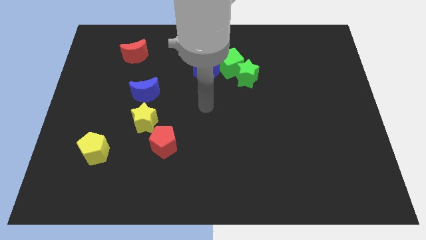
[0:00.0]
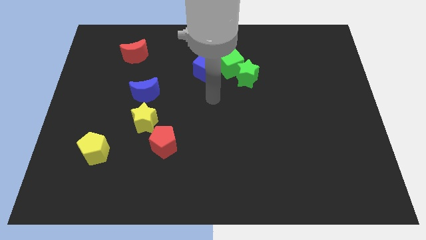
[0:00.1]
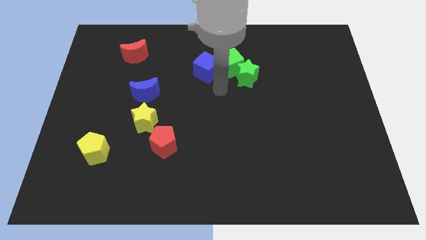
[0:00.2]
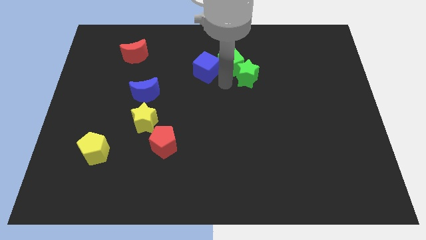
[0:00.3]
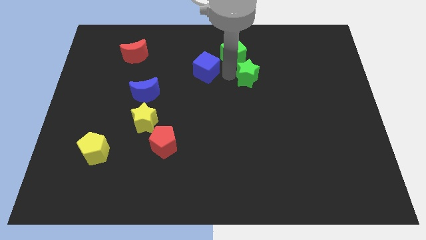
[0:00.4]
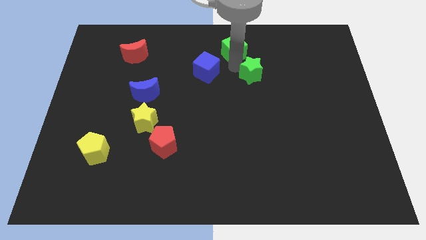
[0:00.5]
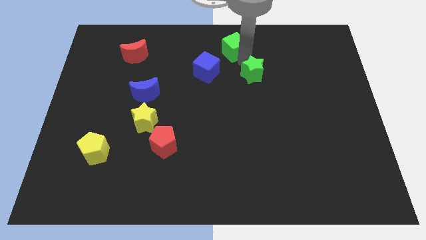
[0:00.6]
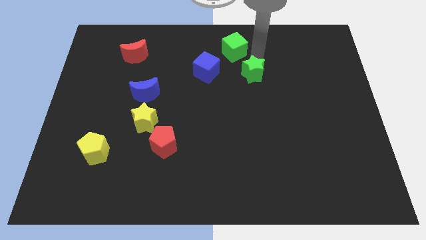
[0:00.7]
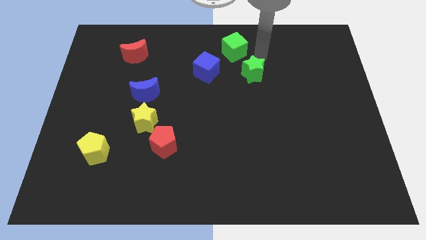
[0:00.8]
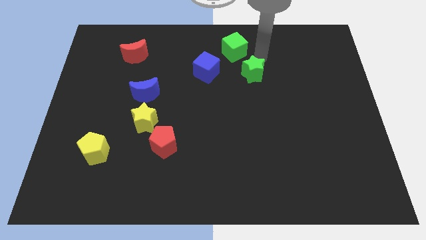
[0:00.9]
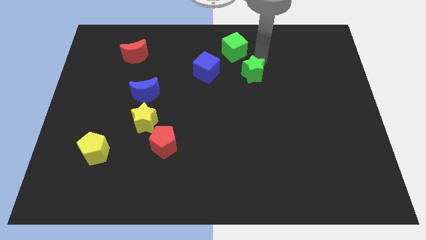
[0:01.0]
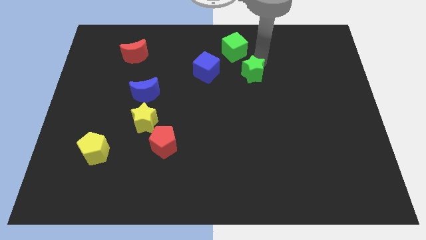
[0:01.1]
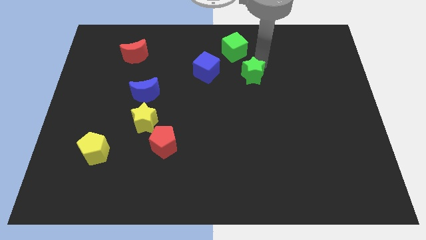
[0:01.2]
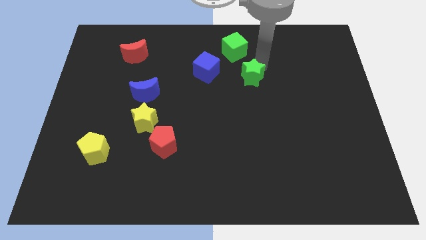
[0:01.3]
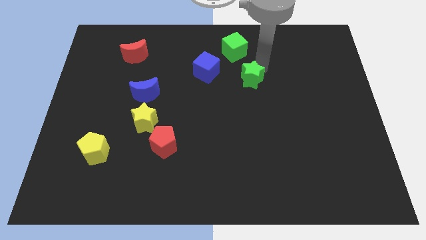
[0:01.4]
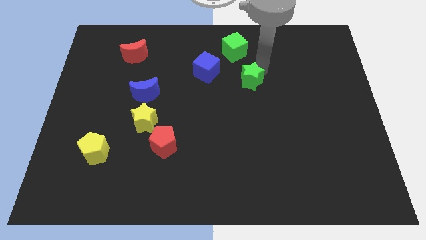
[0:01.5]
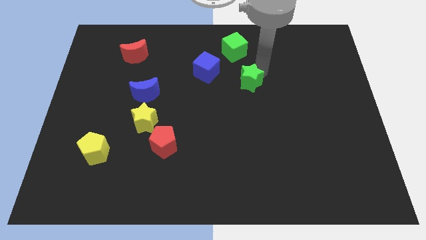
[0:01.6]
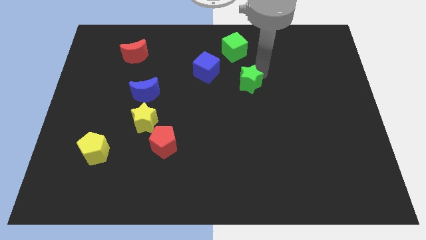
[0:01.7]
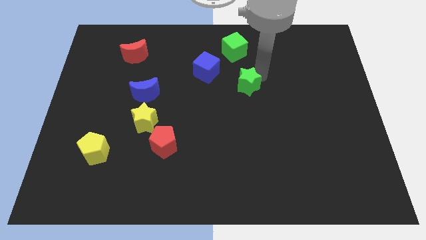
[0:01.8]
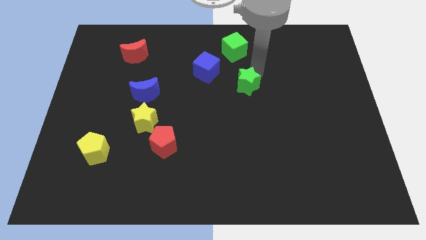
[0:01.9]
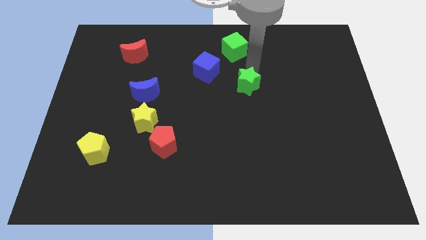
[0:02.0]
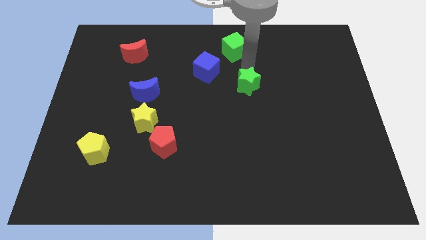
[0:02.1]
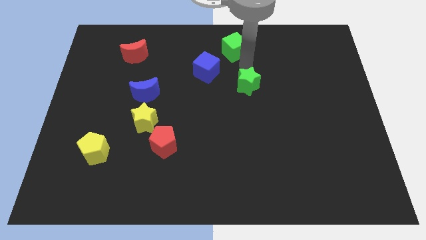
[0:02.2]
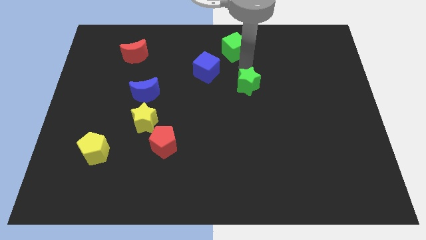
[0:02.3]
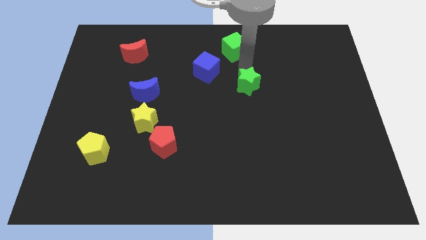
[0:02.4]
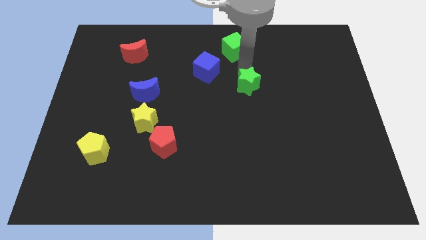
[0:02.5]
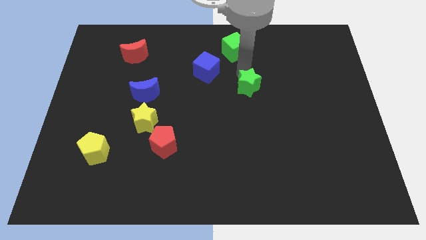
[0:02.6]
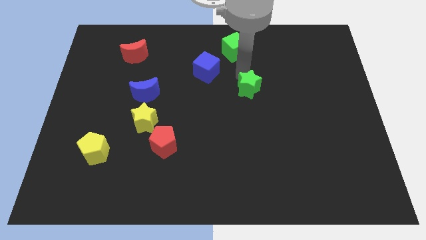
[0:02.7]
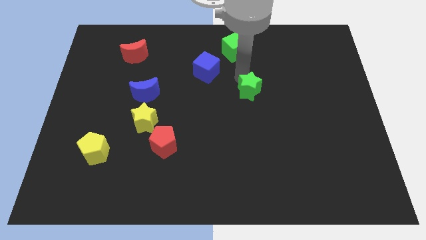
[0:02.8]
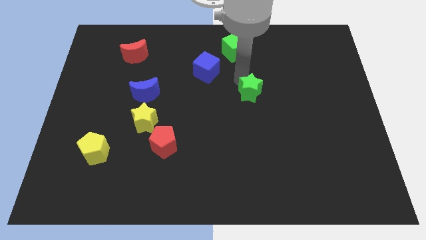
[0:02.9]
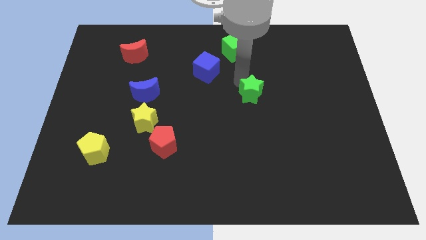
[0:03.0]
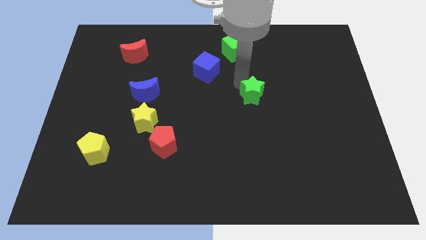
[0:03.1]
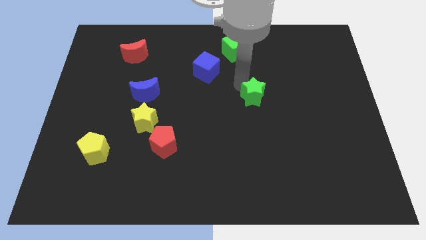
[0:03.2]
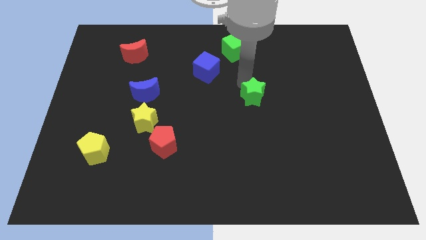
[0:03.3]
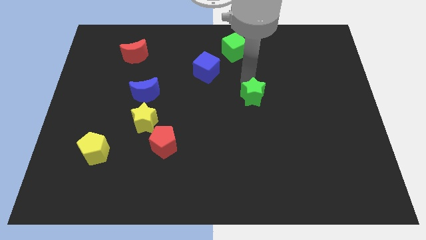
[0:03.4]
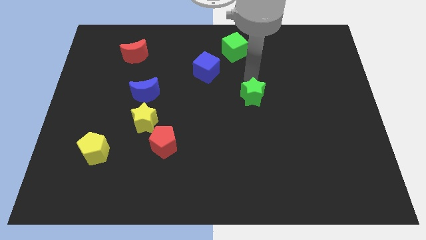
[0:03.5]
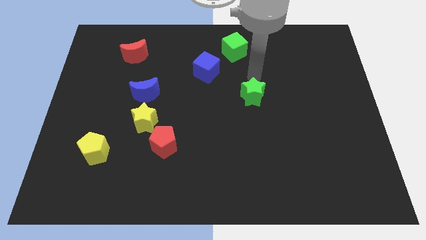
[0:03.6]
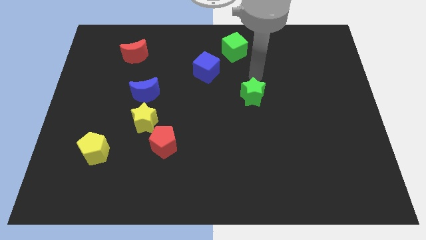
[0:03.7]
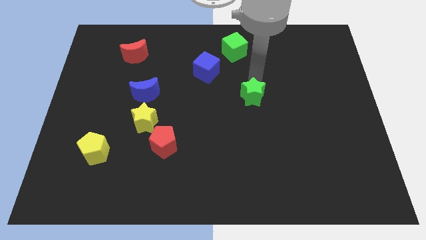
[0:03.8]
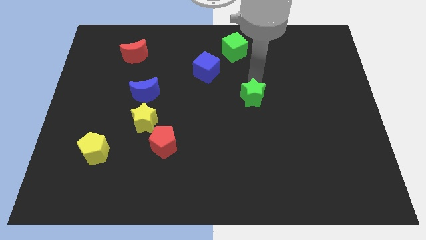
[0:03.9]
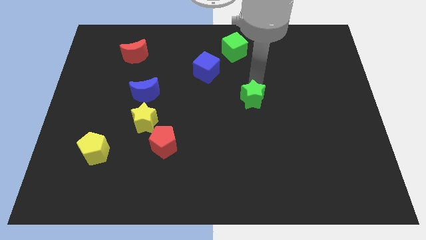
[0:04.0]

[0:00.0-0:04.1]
slide the green star slightly downwards

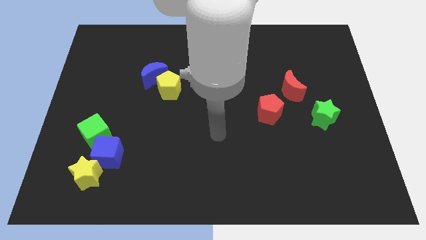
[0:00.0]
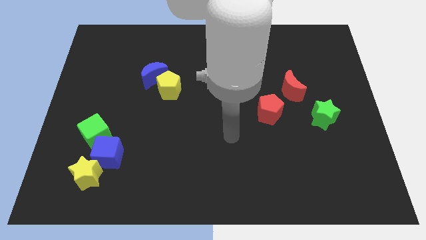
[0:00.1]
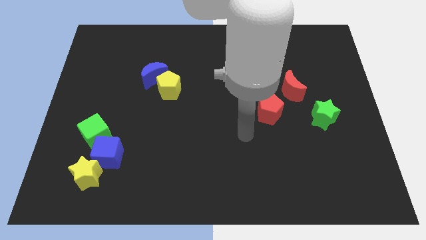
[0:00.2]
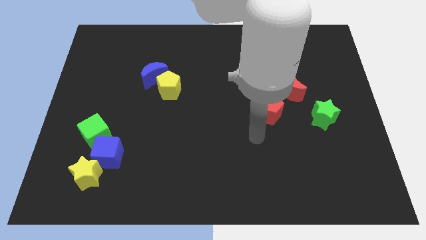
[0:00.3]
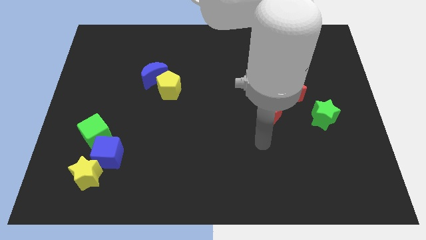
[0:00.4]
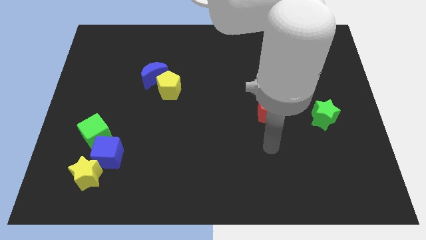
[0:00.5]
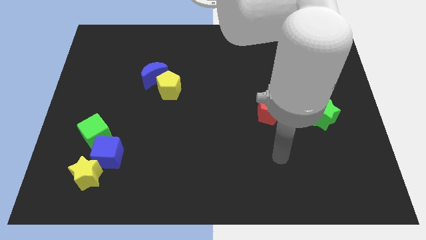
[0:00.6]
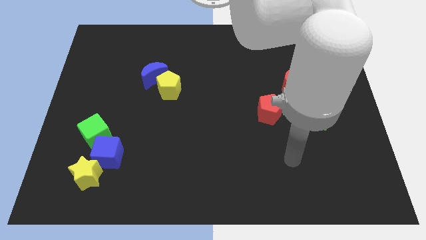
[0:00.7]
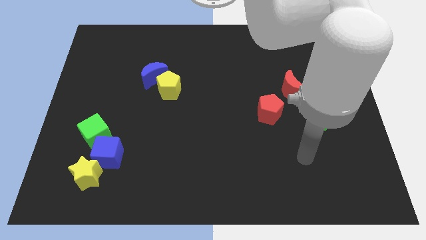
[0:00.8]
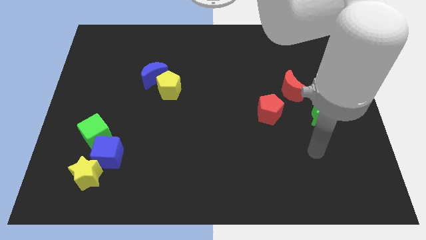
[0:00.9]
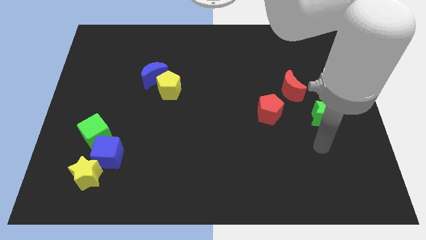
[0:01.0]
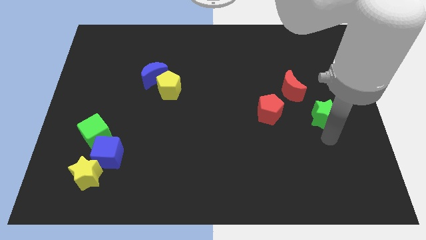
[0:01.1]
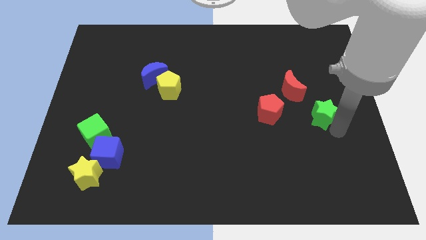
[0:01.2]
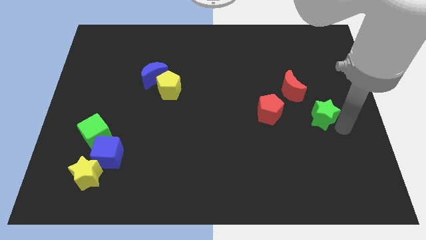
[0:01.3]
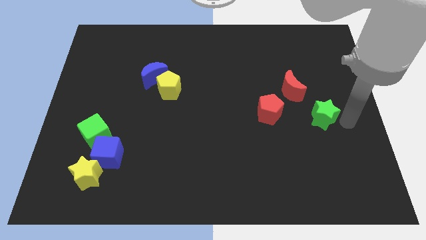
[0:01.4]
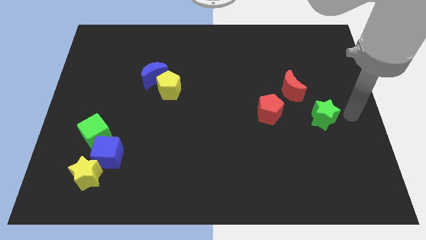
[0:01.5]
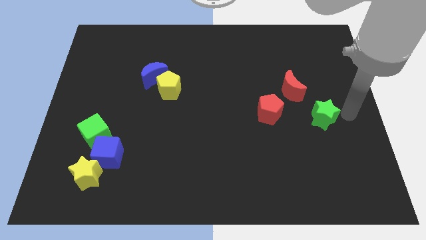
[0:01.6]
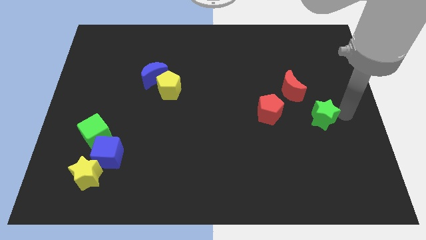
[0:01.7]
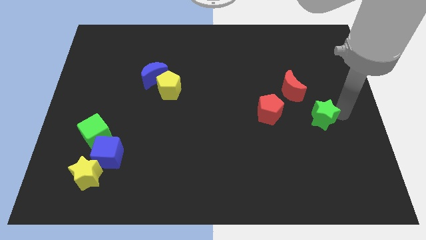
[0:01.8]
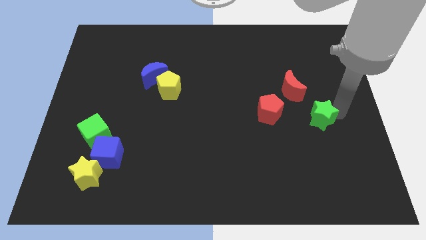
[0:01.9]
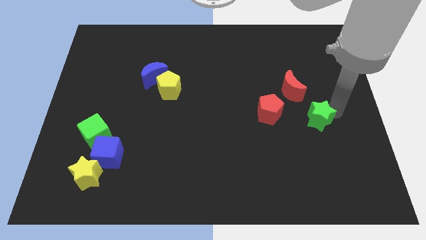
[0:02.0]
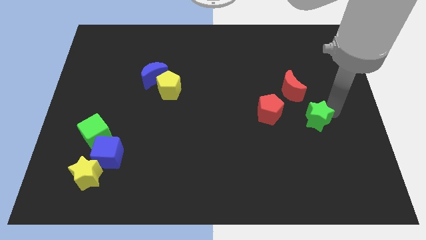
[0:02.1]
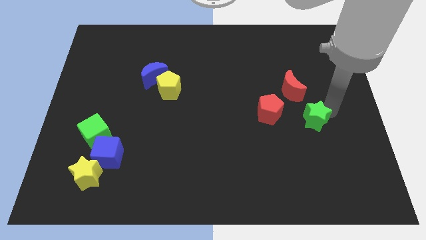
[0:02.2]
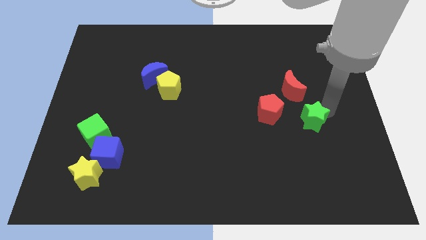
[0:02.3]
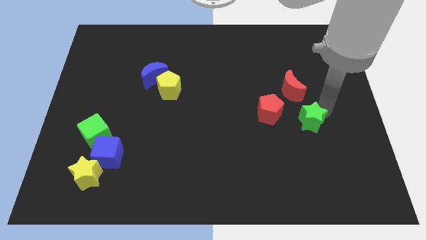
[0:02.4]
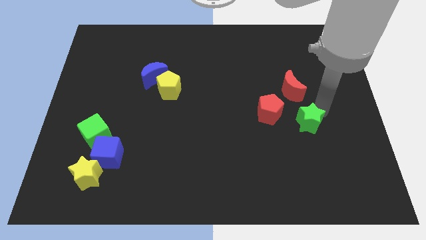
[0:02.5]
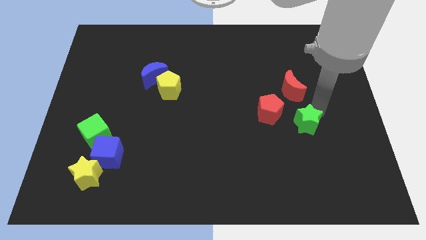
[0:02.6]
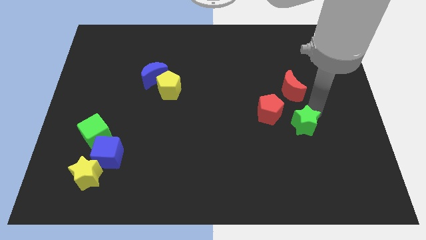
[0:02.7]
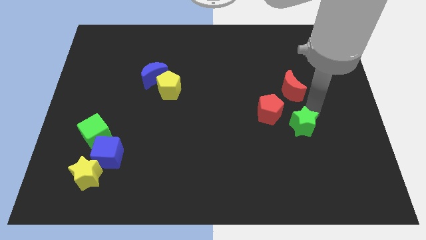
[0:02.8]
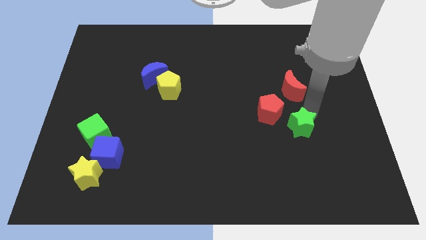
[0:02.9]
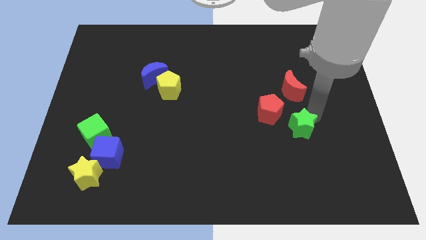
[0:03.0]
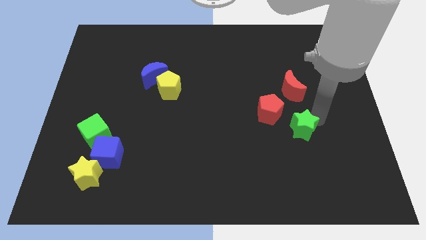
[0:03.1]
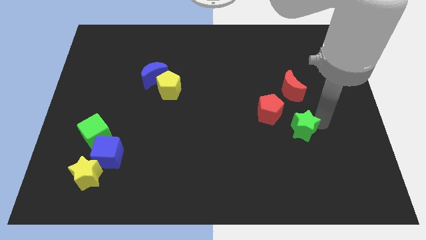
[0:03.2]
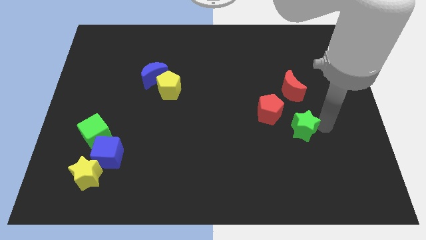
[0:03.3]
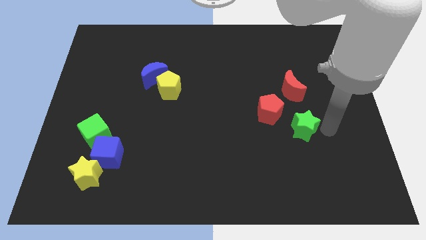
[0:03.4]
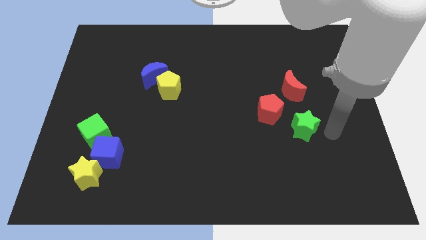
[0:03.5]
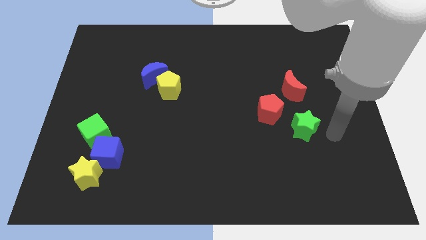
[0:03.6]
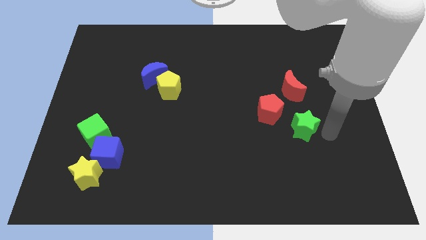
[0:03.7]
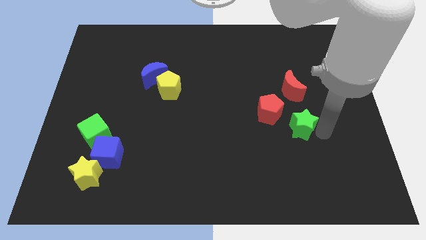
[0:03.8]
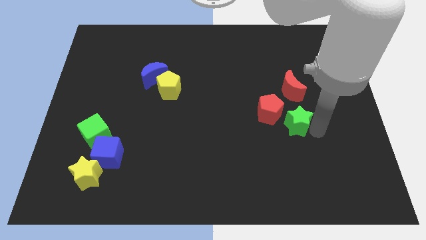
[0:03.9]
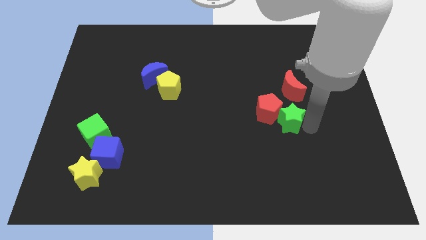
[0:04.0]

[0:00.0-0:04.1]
slightly slide the green star left
